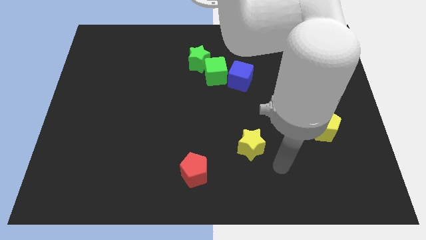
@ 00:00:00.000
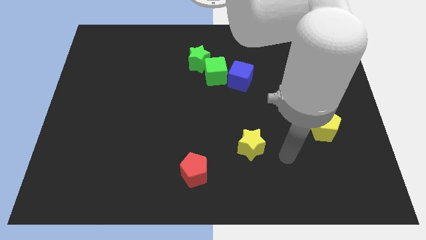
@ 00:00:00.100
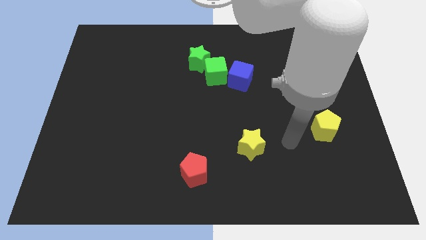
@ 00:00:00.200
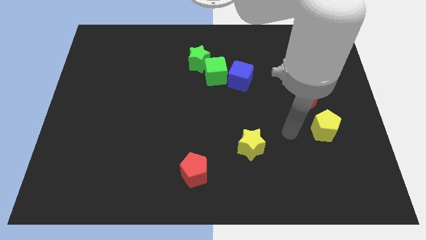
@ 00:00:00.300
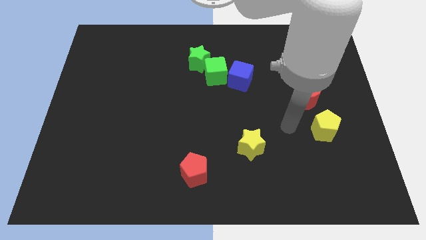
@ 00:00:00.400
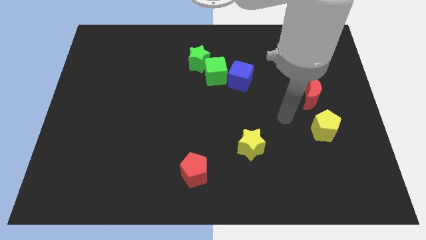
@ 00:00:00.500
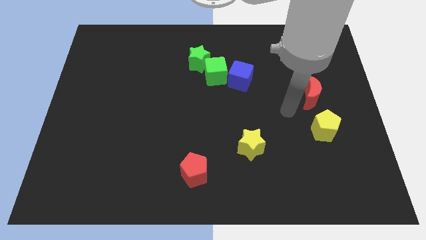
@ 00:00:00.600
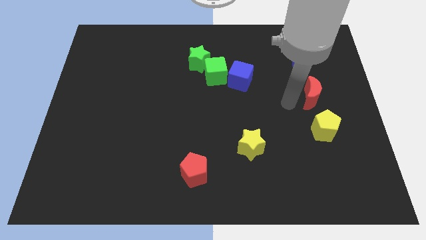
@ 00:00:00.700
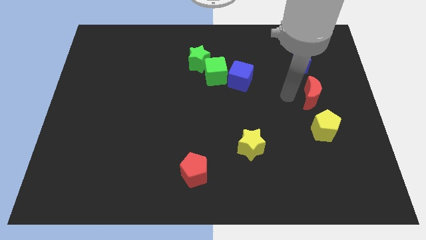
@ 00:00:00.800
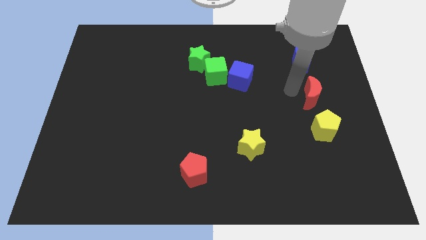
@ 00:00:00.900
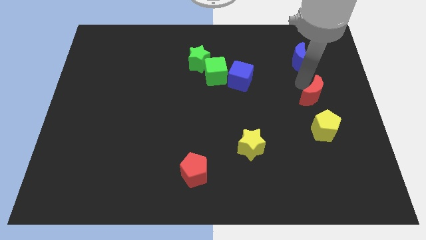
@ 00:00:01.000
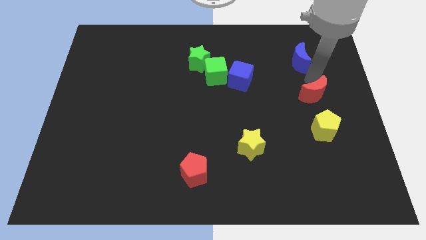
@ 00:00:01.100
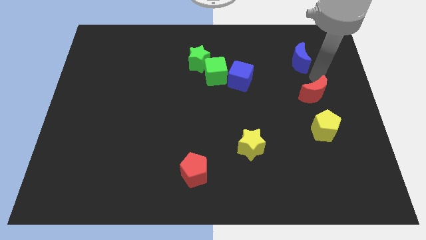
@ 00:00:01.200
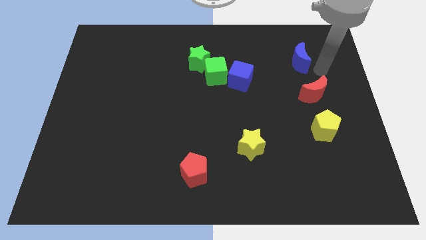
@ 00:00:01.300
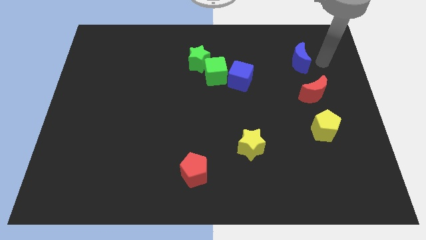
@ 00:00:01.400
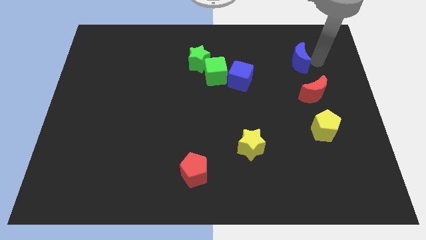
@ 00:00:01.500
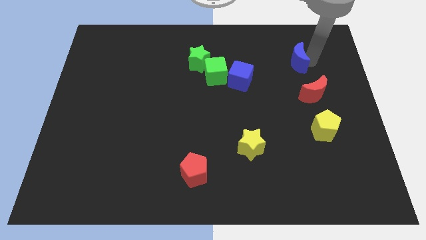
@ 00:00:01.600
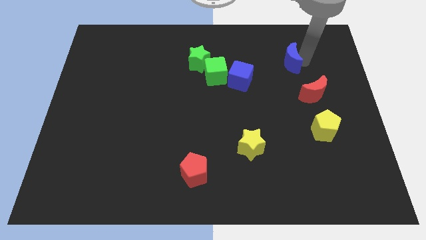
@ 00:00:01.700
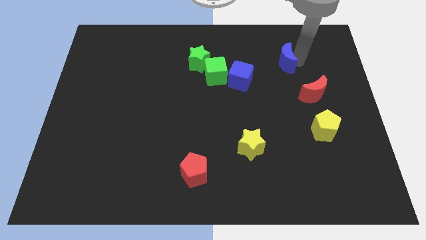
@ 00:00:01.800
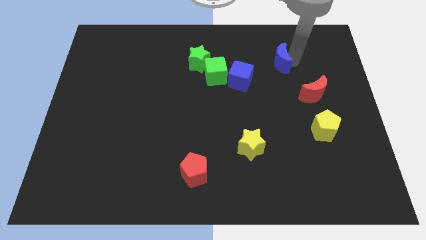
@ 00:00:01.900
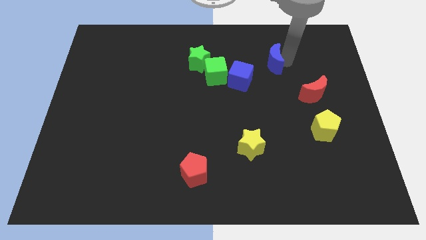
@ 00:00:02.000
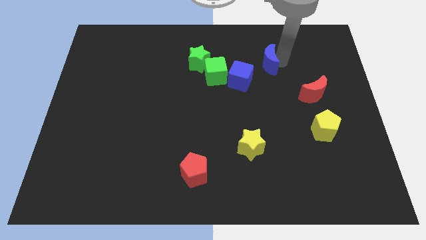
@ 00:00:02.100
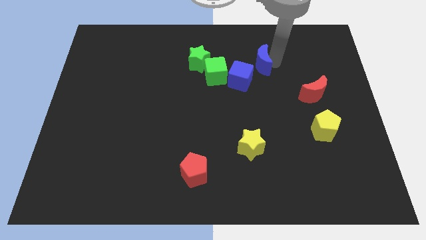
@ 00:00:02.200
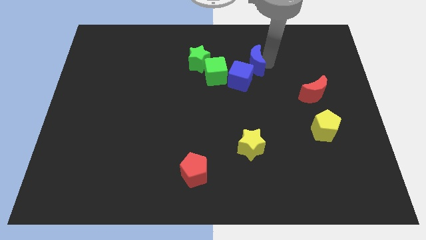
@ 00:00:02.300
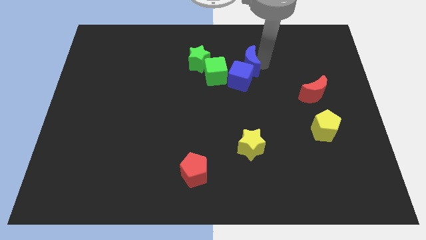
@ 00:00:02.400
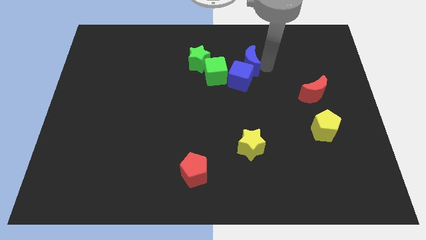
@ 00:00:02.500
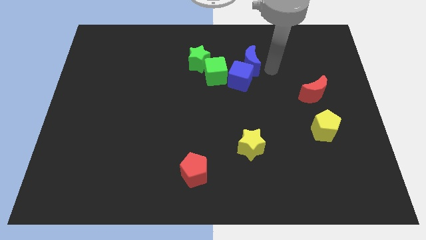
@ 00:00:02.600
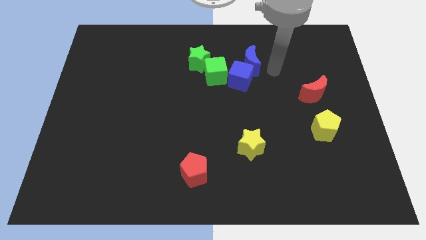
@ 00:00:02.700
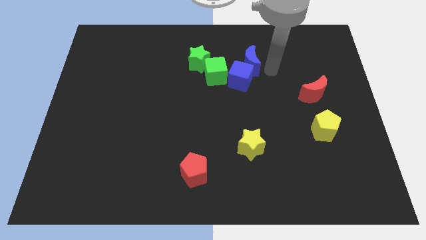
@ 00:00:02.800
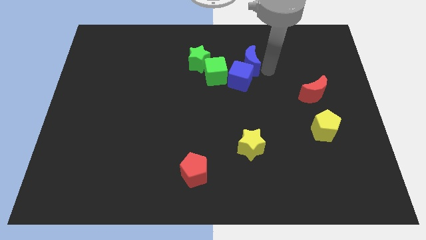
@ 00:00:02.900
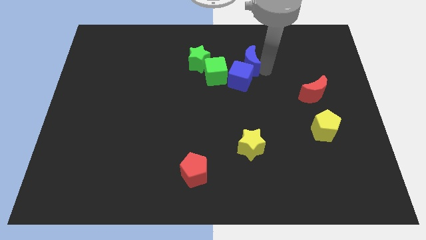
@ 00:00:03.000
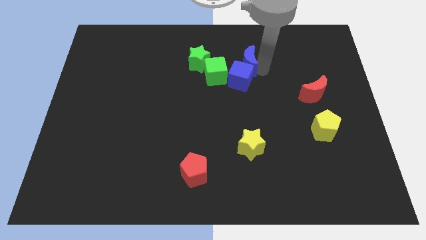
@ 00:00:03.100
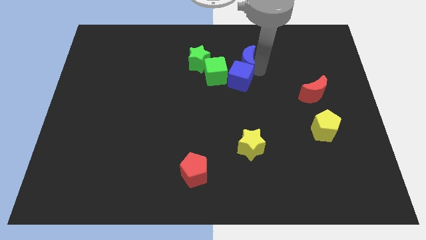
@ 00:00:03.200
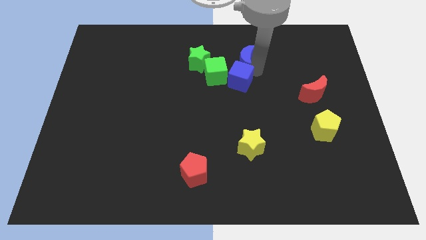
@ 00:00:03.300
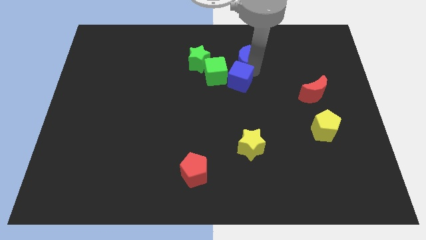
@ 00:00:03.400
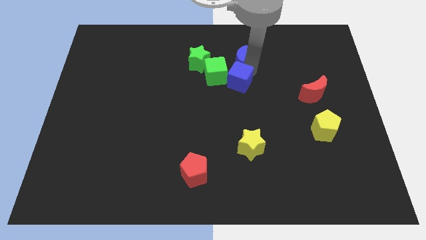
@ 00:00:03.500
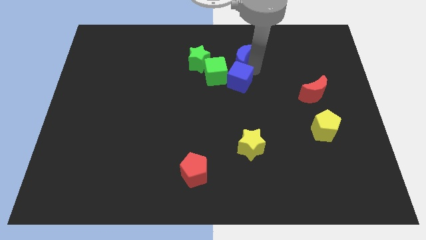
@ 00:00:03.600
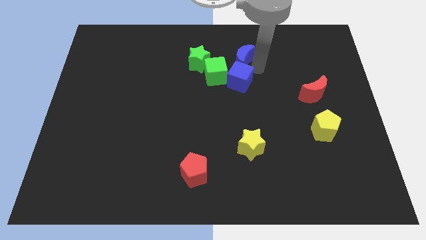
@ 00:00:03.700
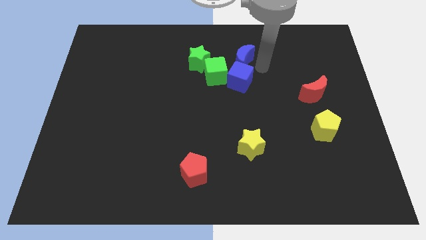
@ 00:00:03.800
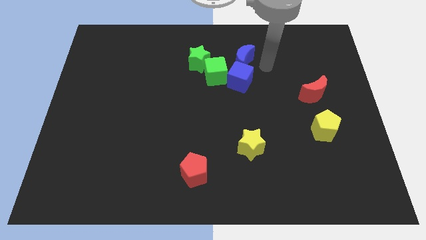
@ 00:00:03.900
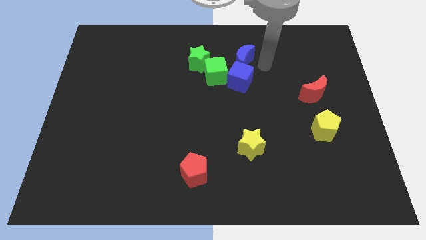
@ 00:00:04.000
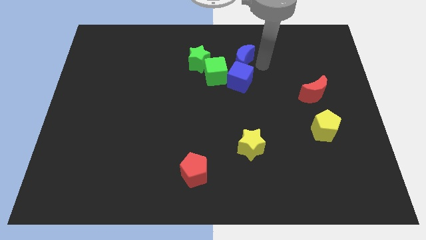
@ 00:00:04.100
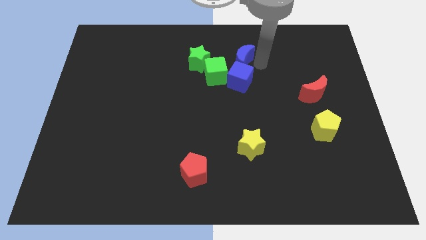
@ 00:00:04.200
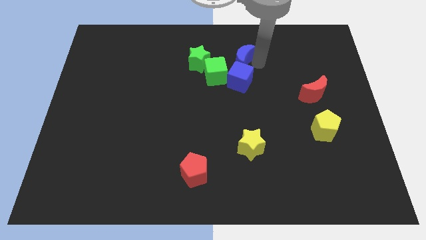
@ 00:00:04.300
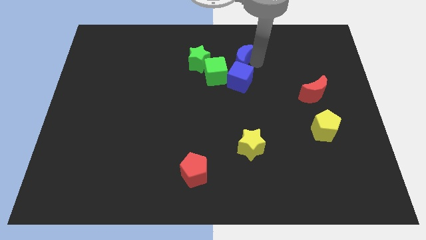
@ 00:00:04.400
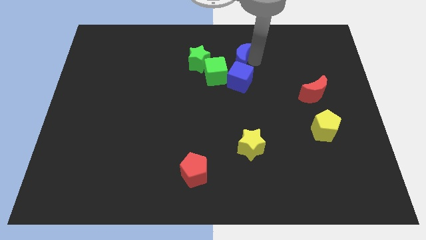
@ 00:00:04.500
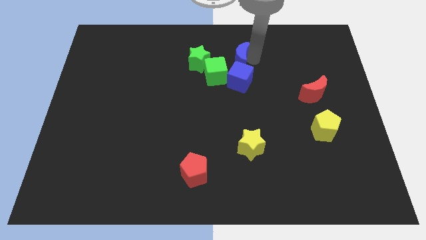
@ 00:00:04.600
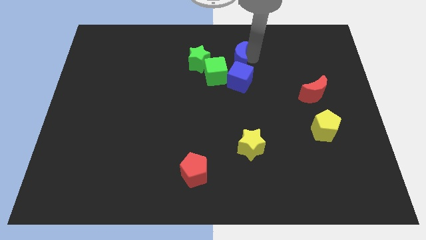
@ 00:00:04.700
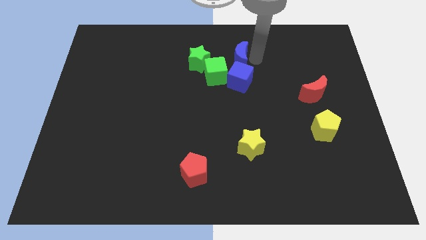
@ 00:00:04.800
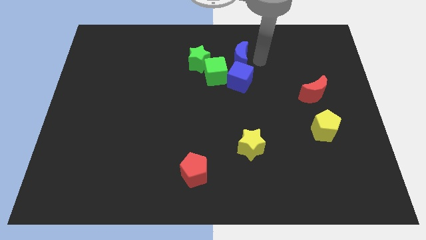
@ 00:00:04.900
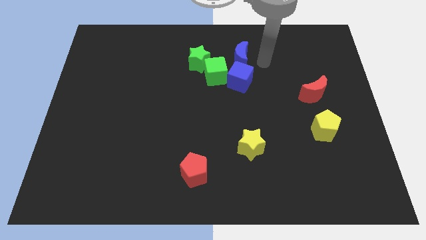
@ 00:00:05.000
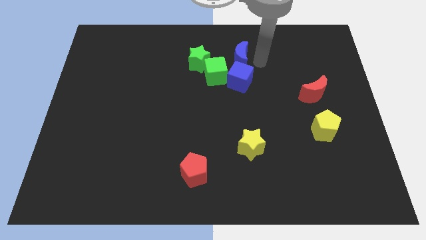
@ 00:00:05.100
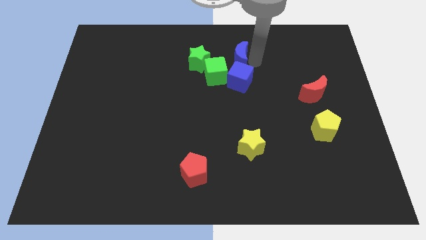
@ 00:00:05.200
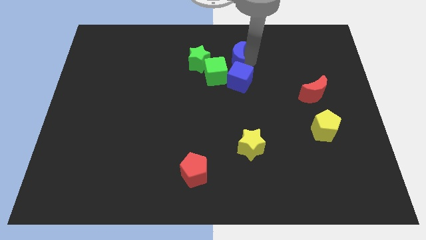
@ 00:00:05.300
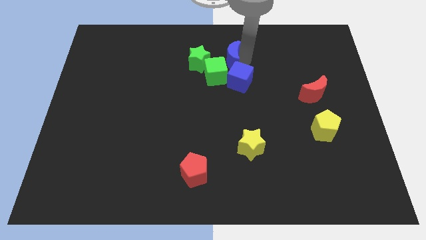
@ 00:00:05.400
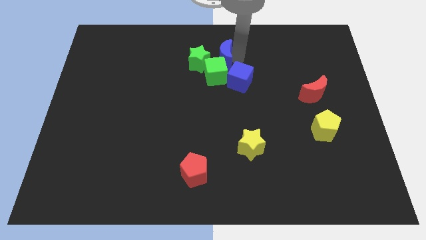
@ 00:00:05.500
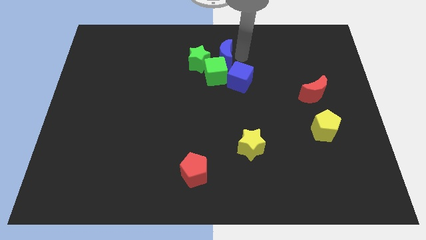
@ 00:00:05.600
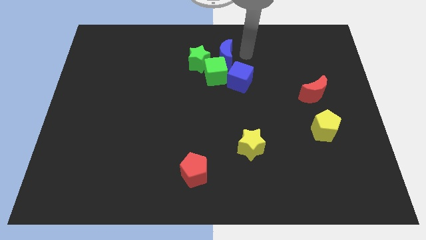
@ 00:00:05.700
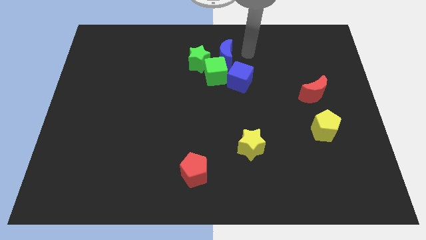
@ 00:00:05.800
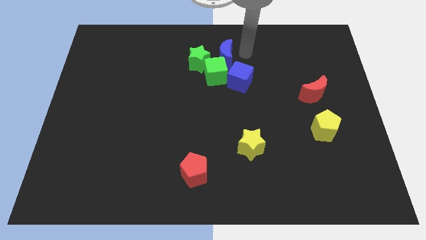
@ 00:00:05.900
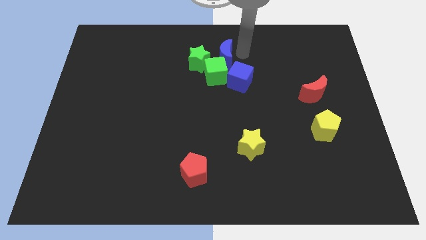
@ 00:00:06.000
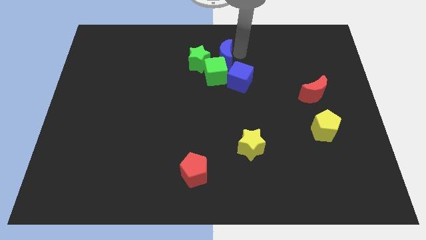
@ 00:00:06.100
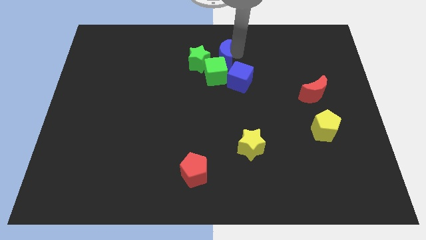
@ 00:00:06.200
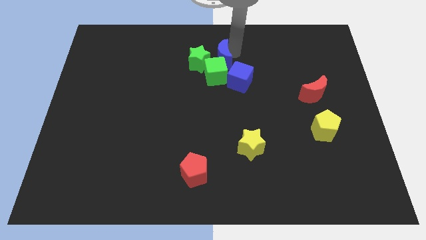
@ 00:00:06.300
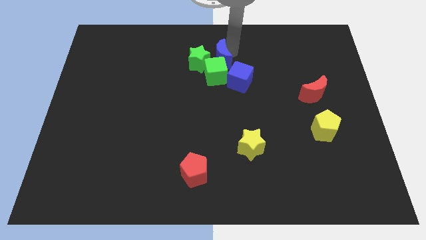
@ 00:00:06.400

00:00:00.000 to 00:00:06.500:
push the blue moon towards the green star
